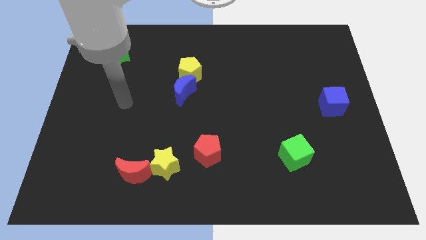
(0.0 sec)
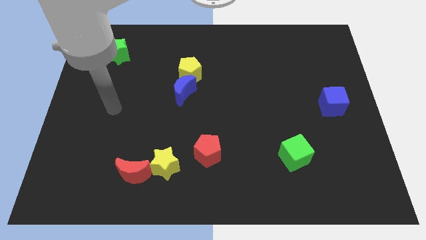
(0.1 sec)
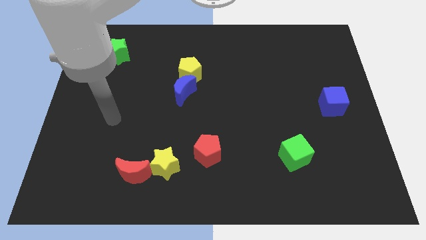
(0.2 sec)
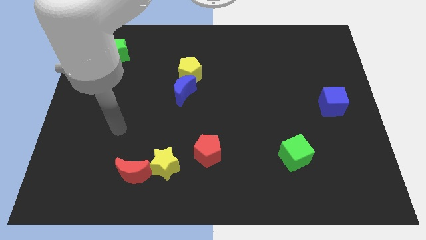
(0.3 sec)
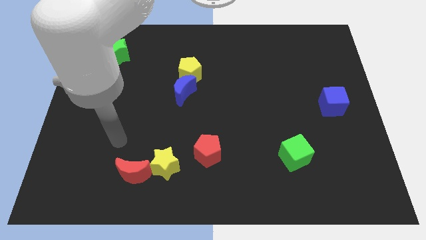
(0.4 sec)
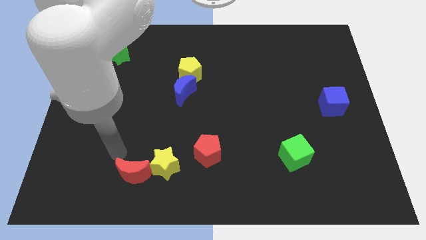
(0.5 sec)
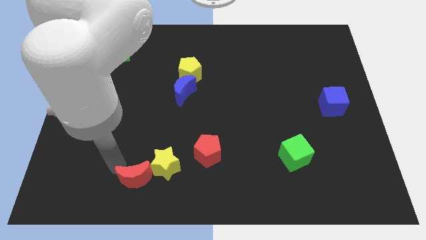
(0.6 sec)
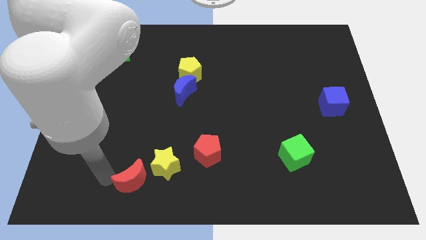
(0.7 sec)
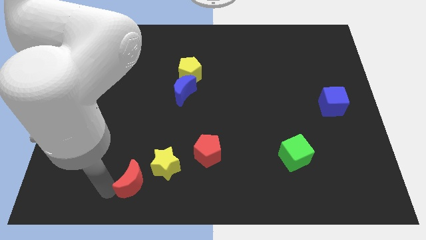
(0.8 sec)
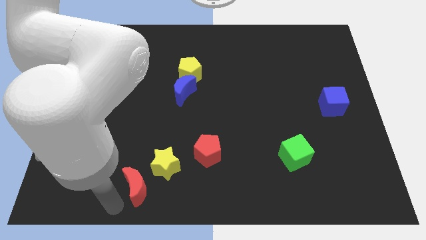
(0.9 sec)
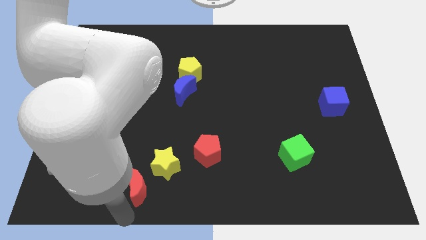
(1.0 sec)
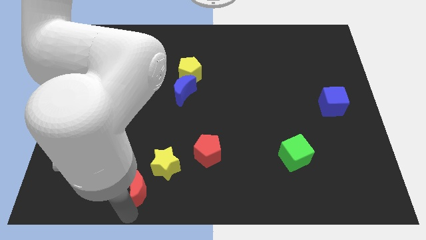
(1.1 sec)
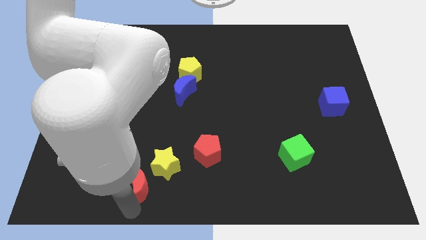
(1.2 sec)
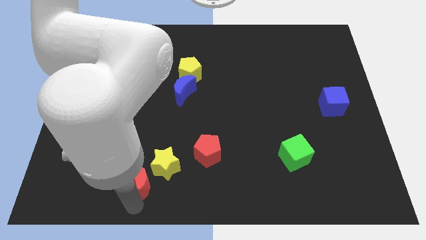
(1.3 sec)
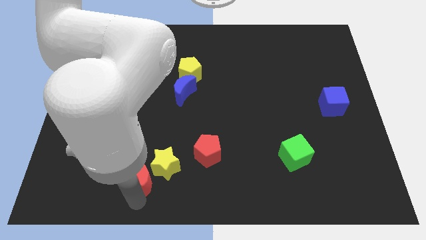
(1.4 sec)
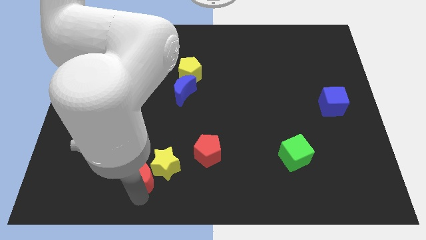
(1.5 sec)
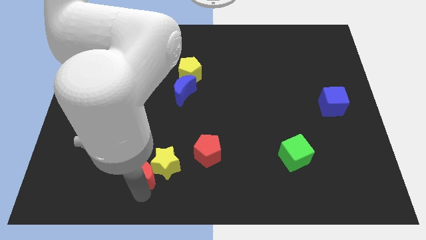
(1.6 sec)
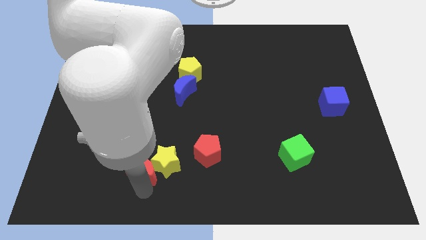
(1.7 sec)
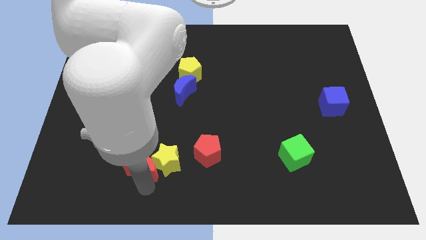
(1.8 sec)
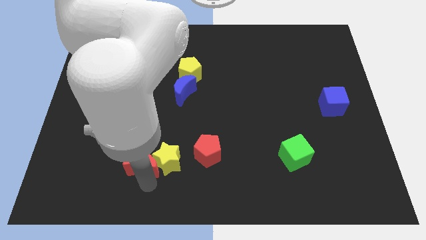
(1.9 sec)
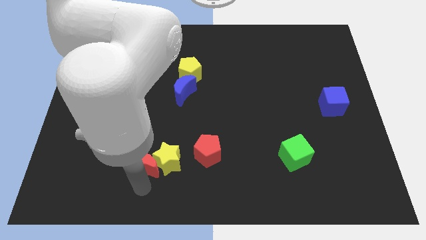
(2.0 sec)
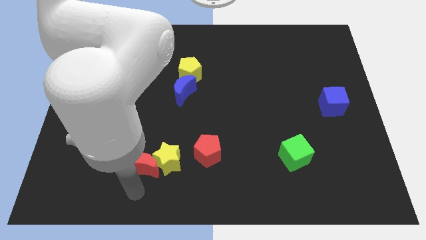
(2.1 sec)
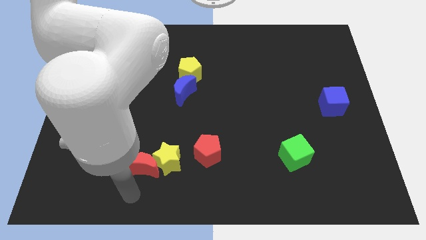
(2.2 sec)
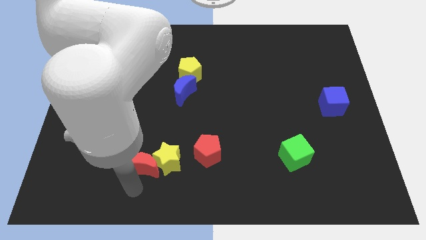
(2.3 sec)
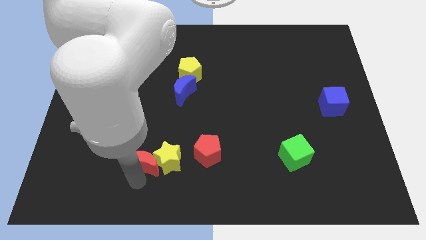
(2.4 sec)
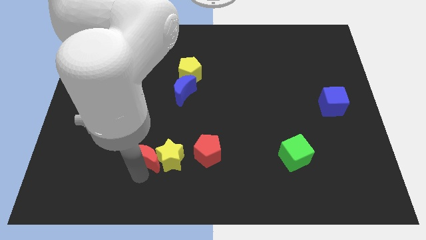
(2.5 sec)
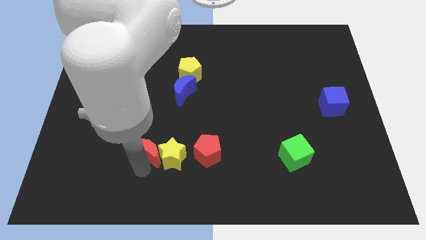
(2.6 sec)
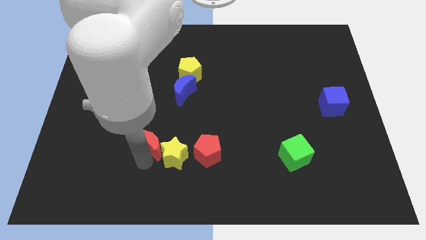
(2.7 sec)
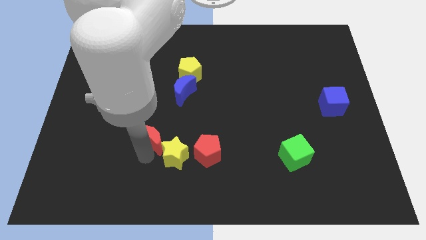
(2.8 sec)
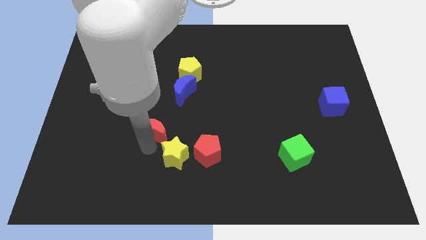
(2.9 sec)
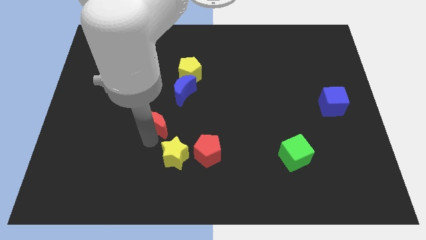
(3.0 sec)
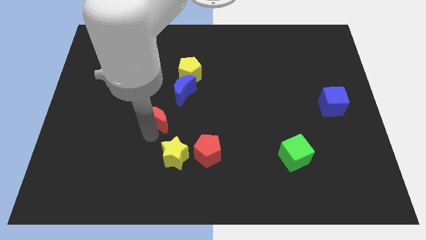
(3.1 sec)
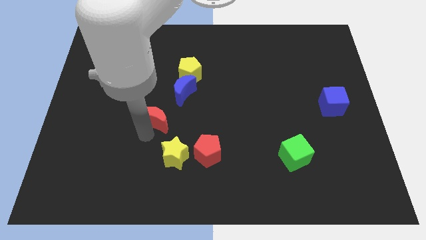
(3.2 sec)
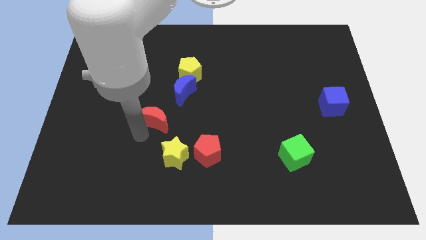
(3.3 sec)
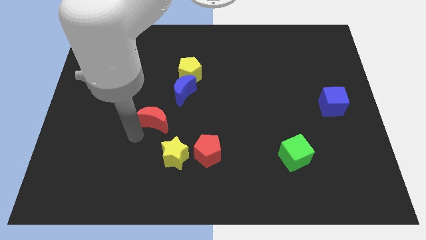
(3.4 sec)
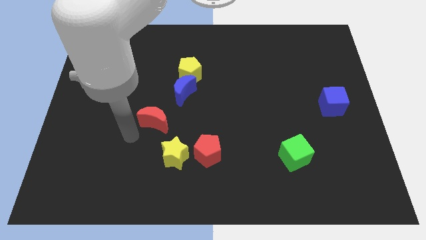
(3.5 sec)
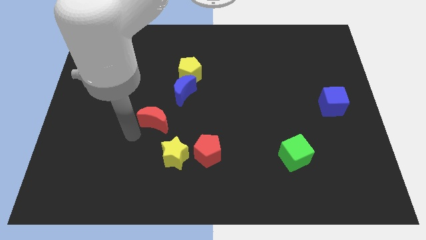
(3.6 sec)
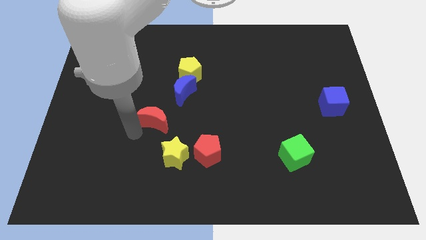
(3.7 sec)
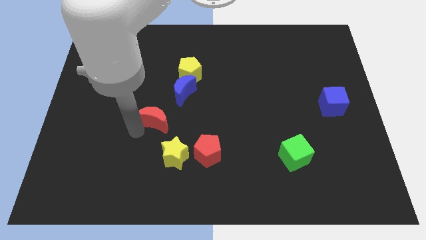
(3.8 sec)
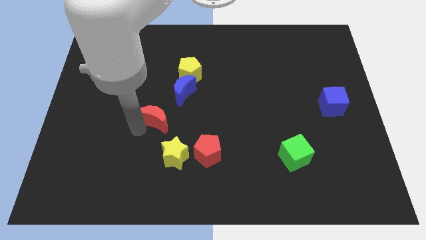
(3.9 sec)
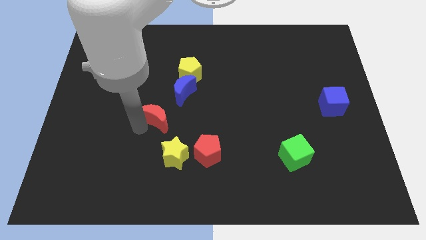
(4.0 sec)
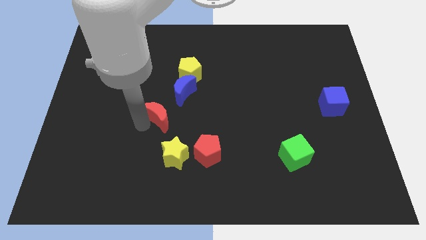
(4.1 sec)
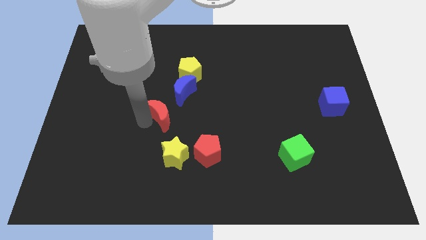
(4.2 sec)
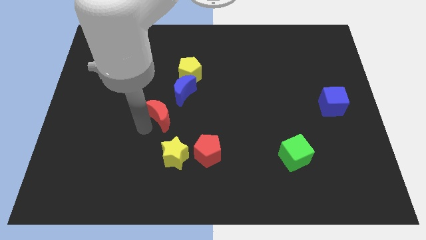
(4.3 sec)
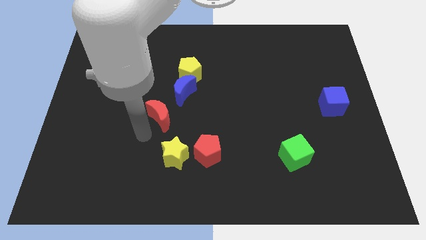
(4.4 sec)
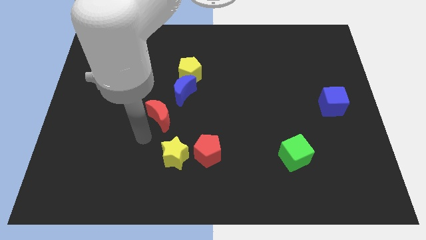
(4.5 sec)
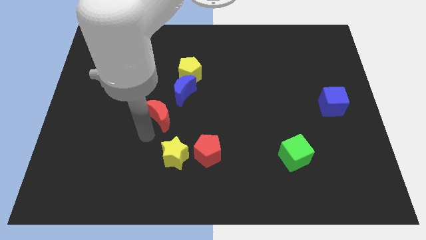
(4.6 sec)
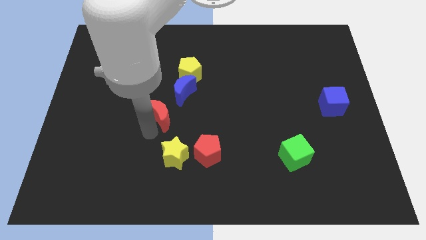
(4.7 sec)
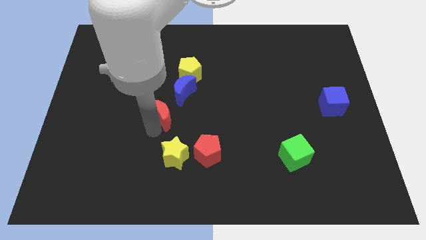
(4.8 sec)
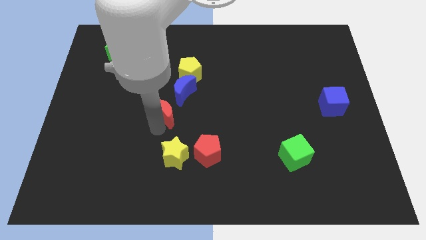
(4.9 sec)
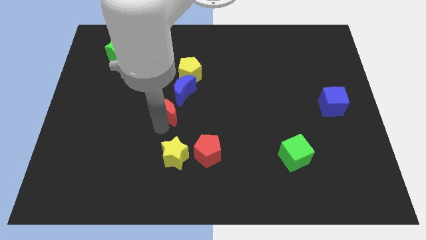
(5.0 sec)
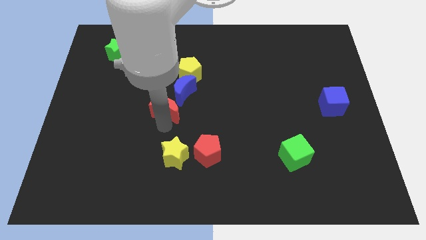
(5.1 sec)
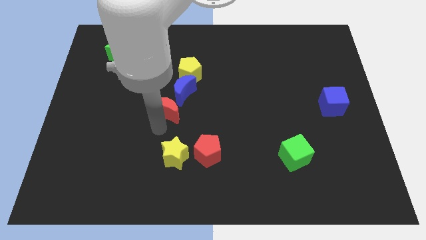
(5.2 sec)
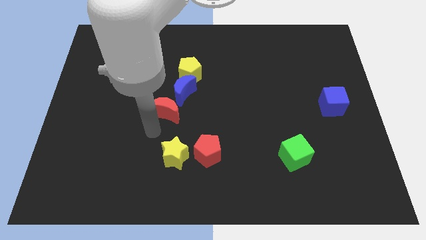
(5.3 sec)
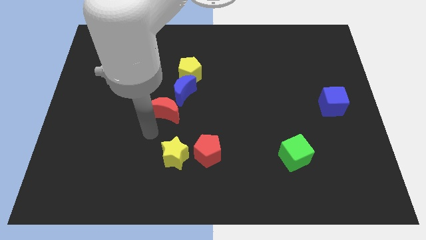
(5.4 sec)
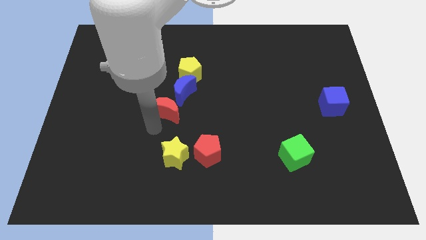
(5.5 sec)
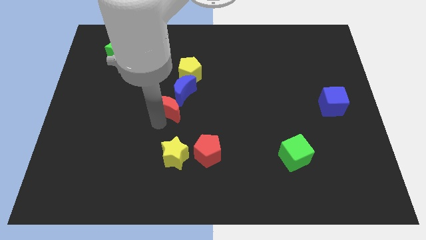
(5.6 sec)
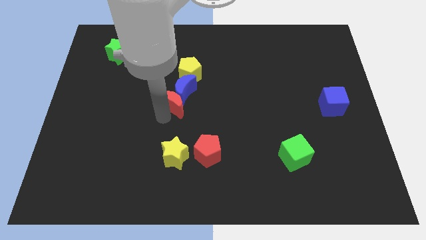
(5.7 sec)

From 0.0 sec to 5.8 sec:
slide the red moon to the blue moon

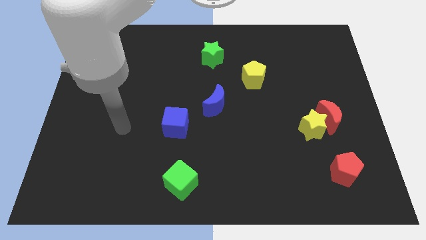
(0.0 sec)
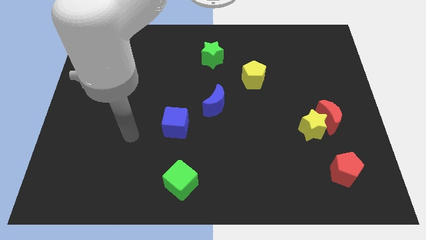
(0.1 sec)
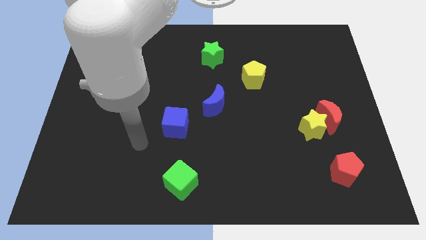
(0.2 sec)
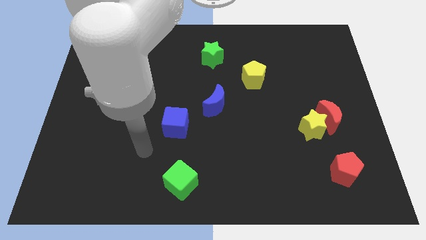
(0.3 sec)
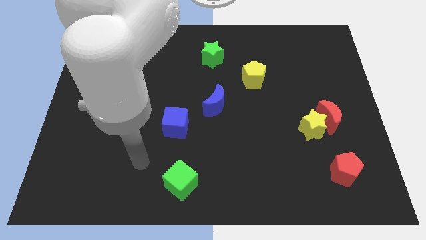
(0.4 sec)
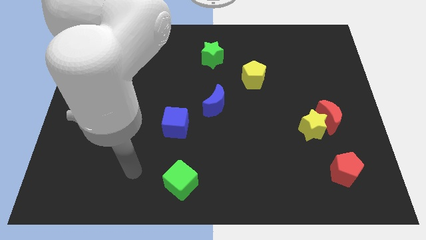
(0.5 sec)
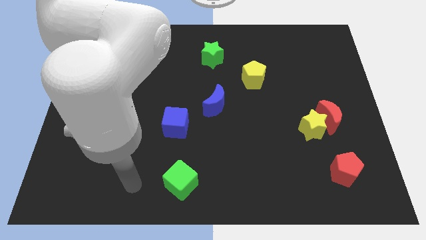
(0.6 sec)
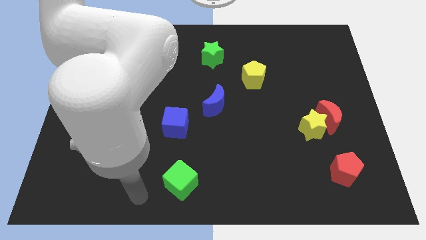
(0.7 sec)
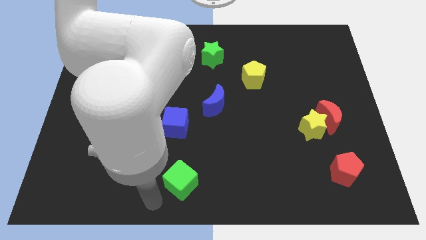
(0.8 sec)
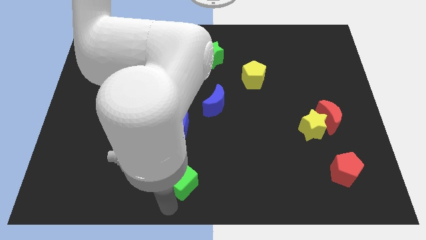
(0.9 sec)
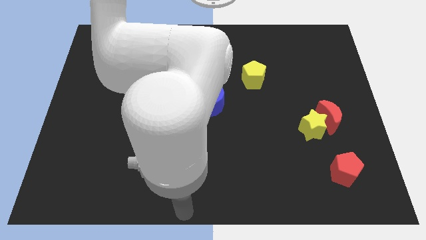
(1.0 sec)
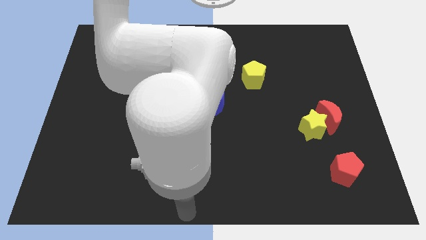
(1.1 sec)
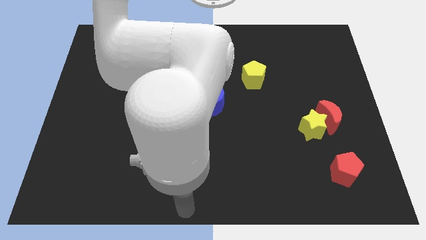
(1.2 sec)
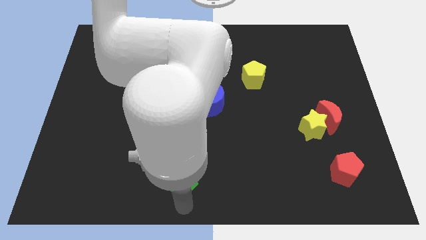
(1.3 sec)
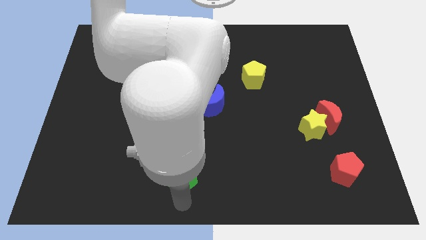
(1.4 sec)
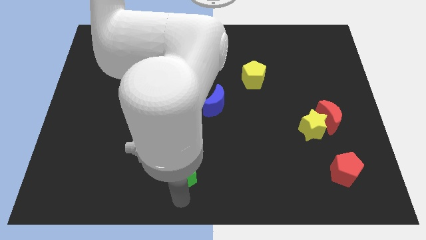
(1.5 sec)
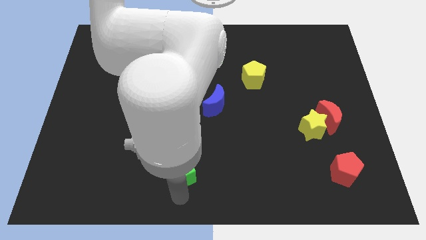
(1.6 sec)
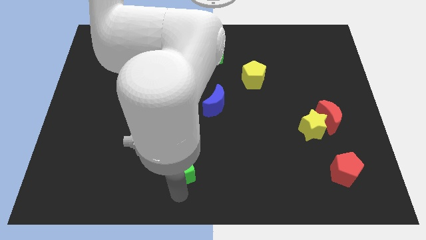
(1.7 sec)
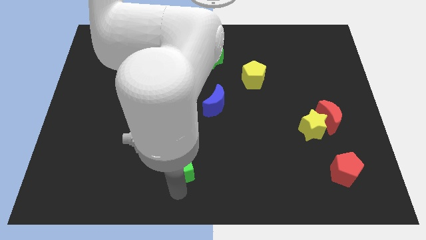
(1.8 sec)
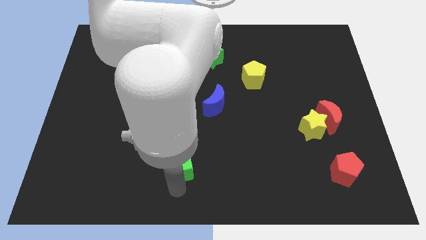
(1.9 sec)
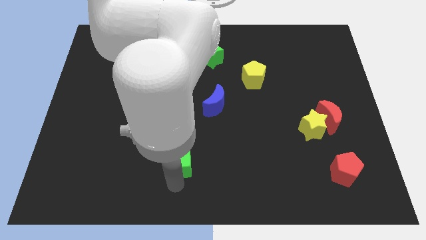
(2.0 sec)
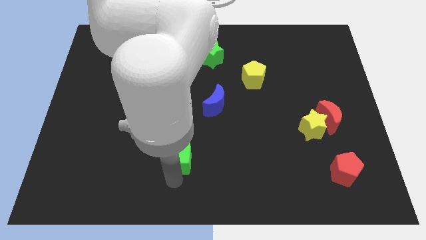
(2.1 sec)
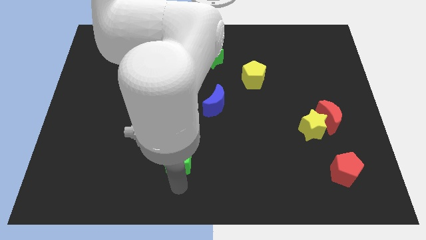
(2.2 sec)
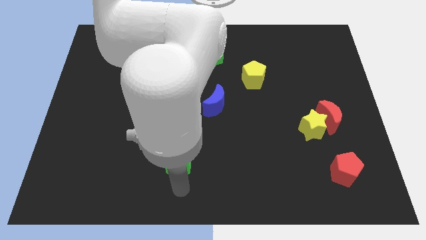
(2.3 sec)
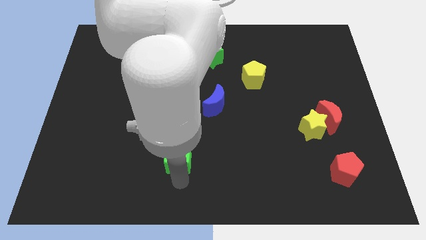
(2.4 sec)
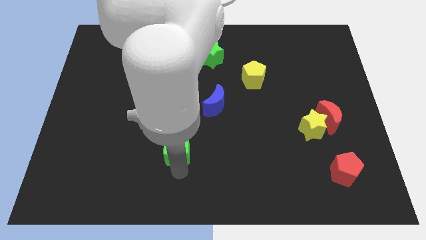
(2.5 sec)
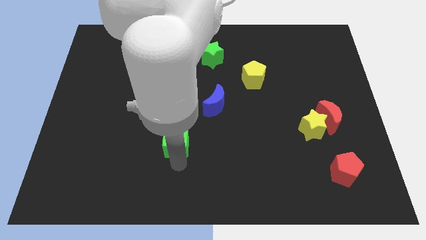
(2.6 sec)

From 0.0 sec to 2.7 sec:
put the green cube close to the blue cube
